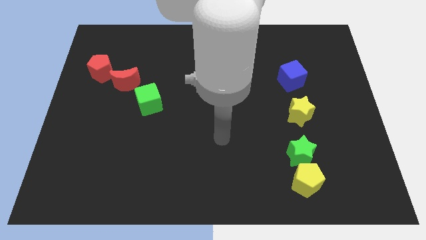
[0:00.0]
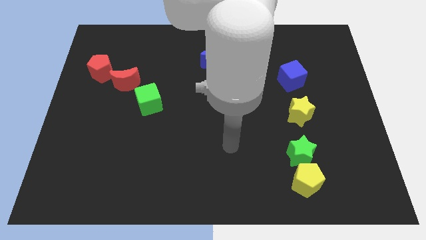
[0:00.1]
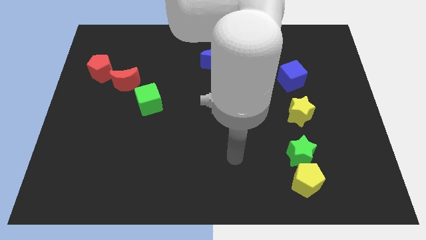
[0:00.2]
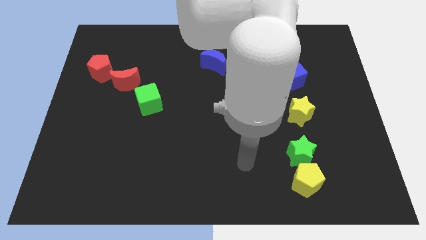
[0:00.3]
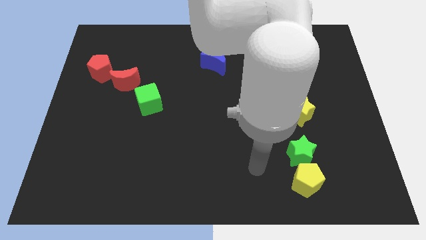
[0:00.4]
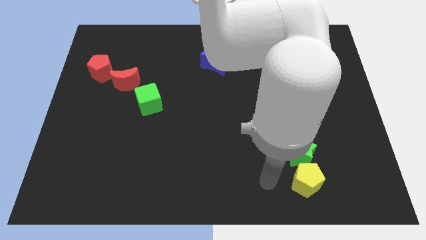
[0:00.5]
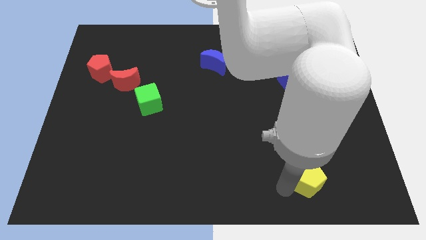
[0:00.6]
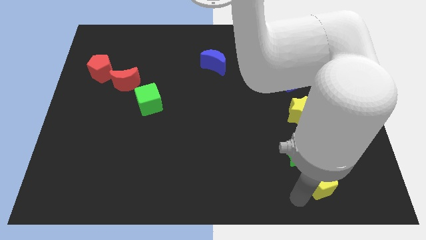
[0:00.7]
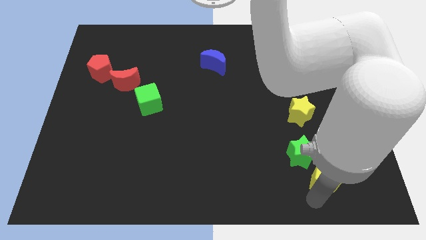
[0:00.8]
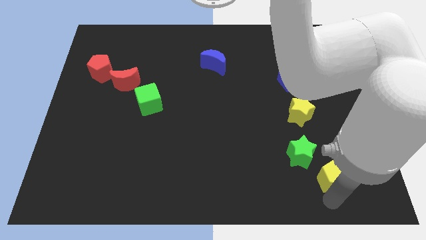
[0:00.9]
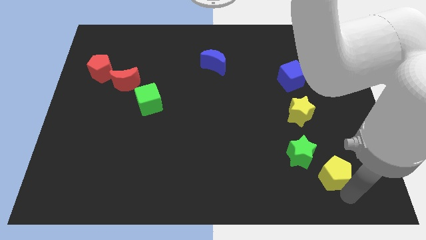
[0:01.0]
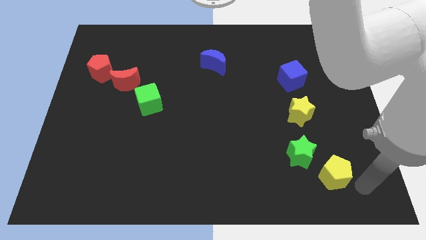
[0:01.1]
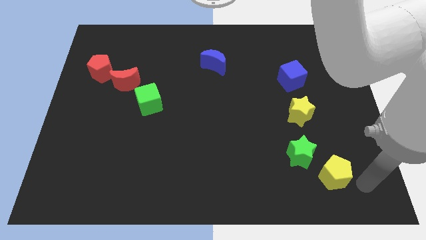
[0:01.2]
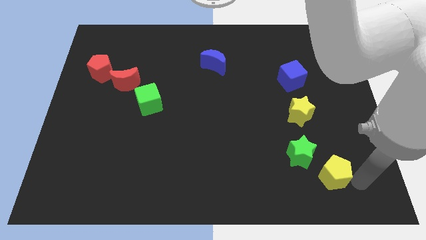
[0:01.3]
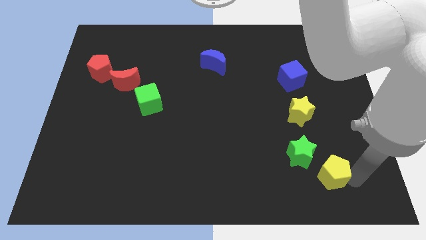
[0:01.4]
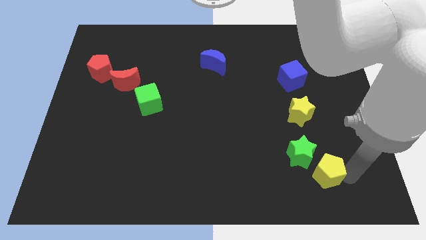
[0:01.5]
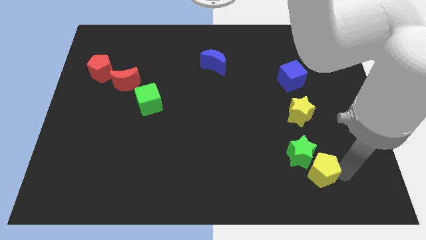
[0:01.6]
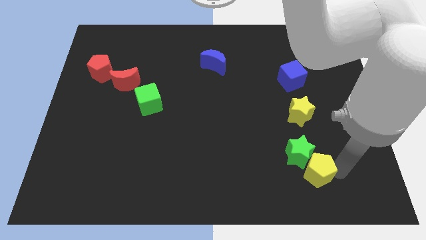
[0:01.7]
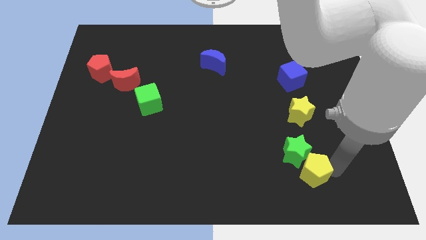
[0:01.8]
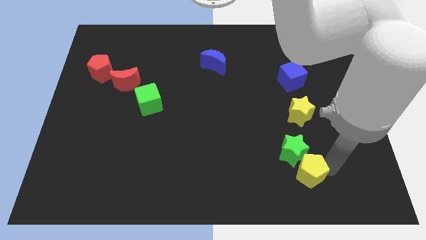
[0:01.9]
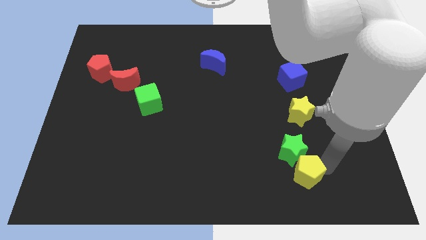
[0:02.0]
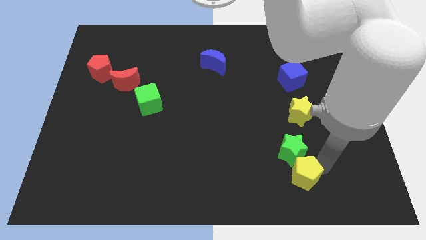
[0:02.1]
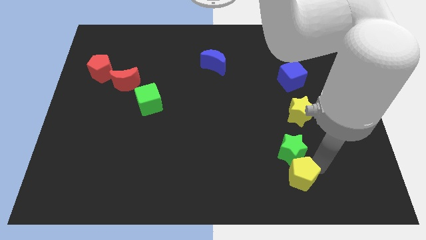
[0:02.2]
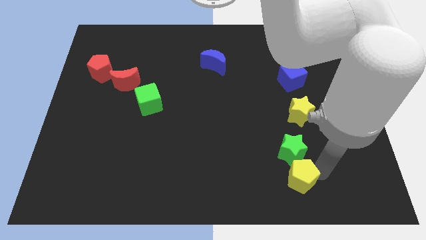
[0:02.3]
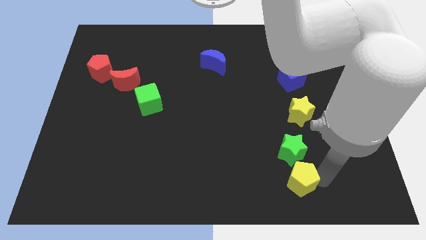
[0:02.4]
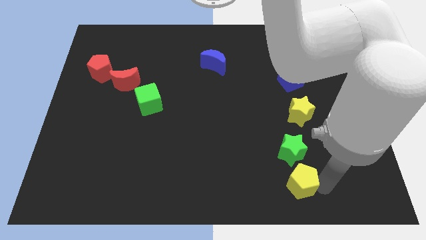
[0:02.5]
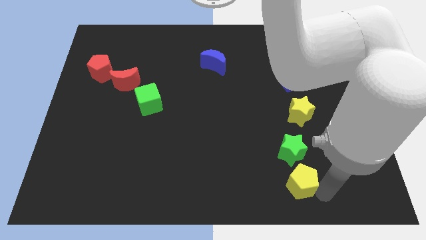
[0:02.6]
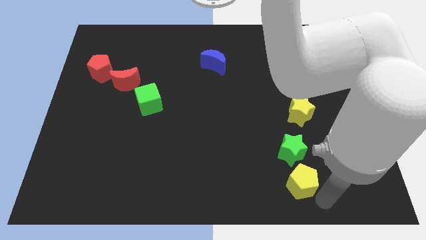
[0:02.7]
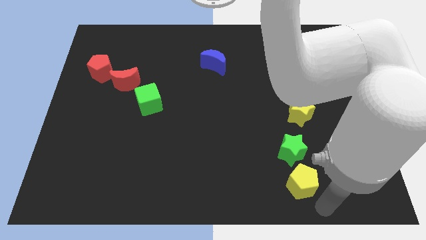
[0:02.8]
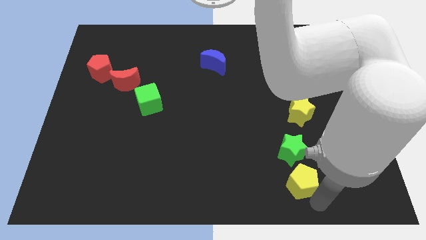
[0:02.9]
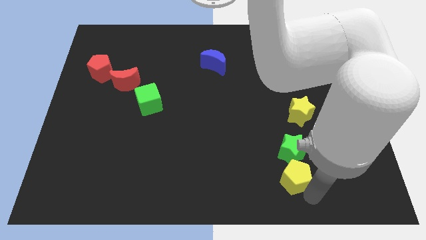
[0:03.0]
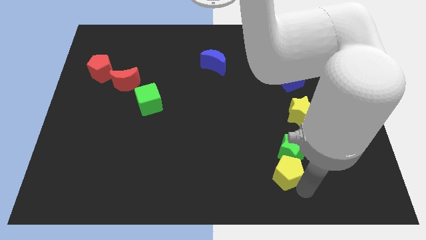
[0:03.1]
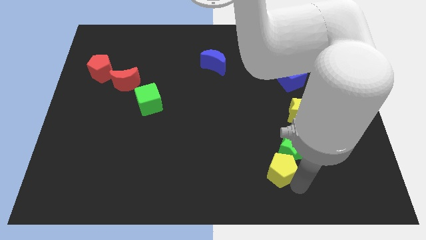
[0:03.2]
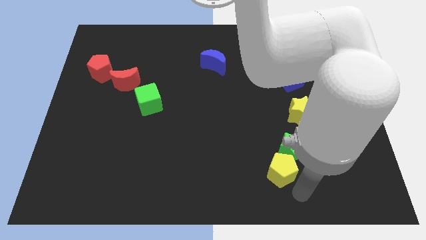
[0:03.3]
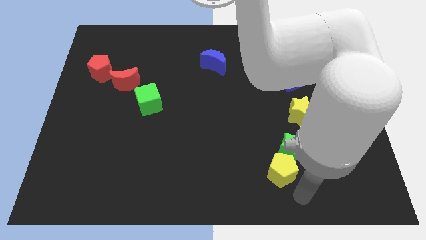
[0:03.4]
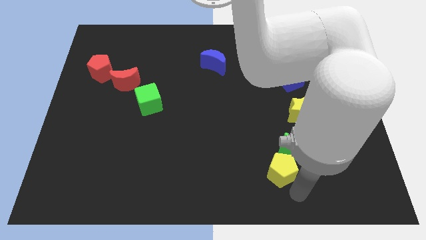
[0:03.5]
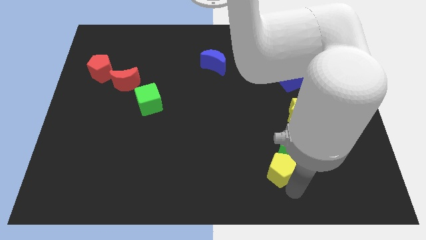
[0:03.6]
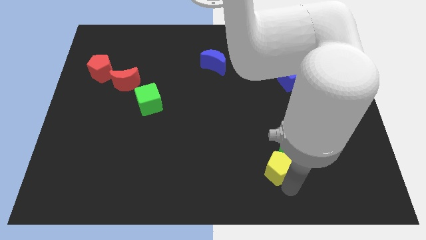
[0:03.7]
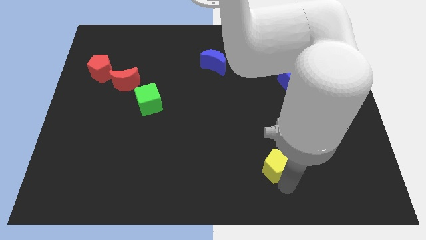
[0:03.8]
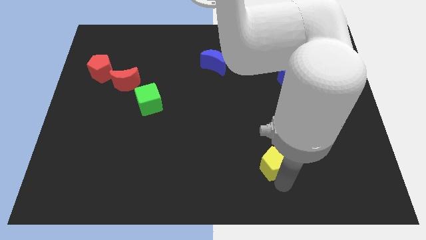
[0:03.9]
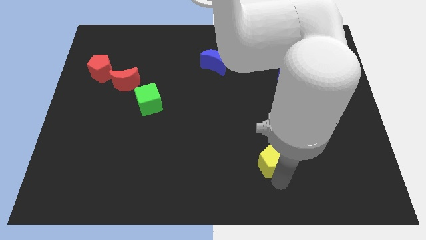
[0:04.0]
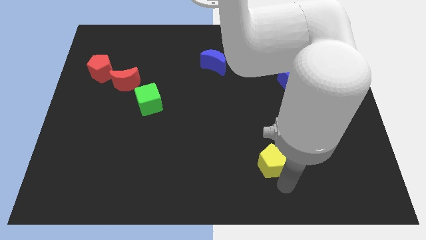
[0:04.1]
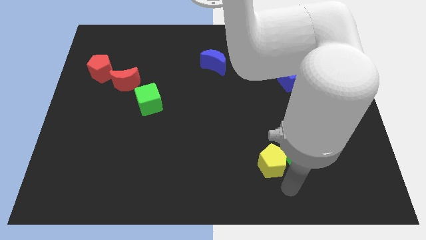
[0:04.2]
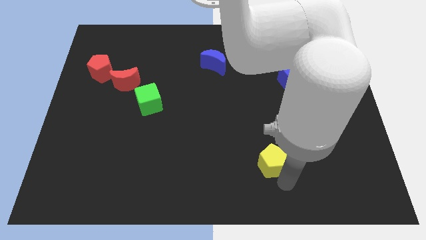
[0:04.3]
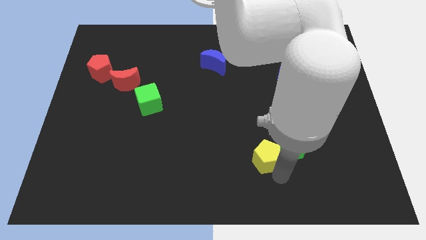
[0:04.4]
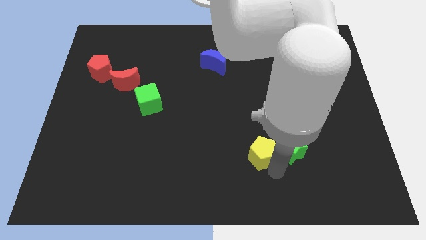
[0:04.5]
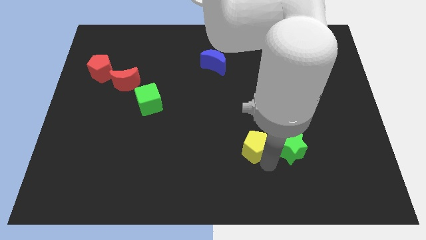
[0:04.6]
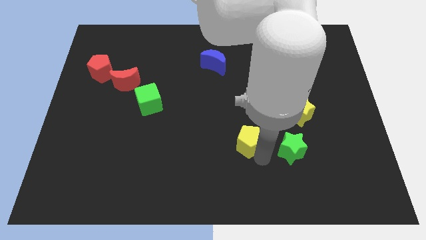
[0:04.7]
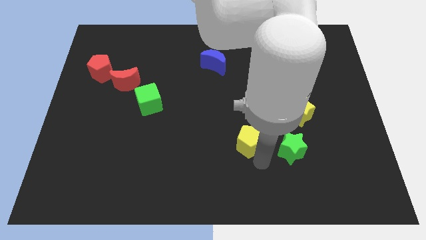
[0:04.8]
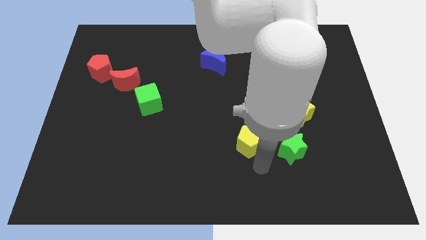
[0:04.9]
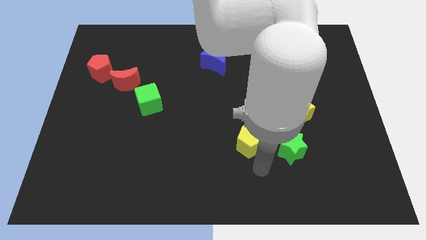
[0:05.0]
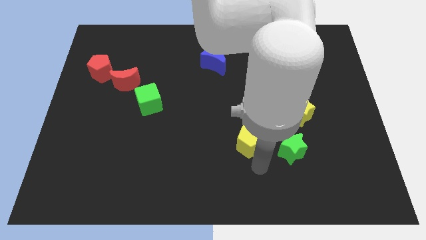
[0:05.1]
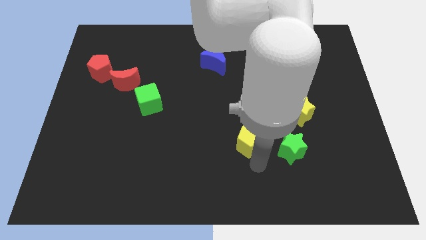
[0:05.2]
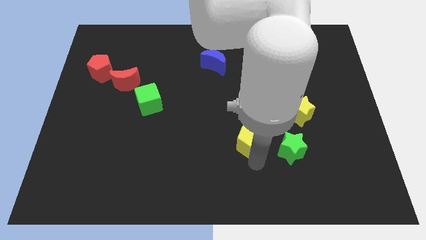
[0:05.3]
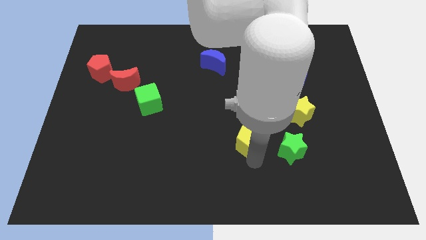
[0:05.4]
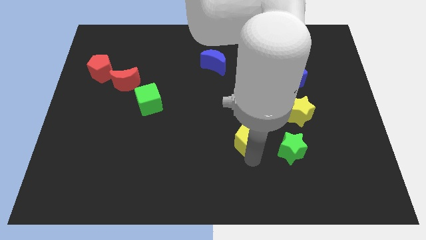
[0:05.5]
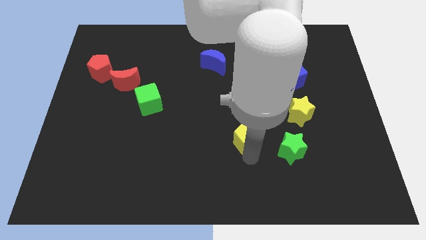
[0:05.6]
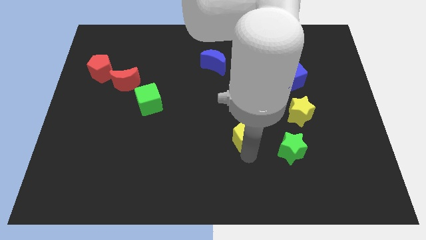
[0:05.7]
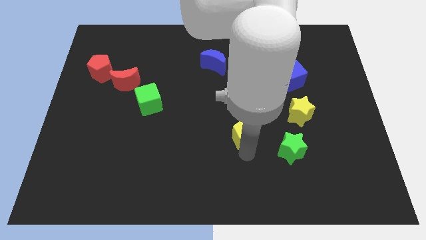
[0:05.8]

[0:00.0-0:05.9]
move the yellow pentagon to the center
